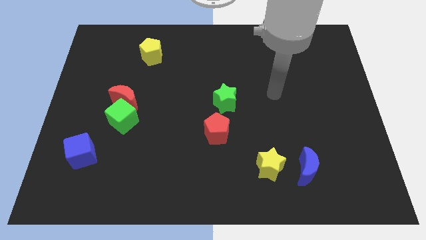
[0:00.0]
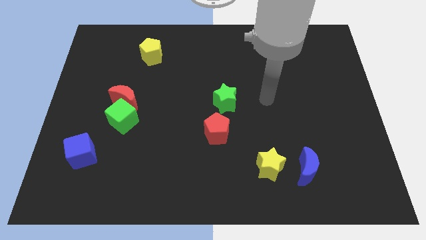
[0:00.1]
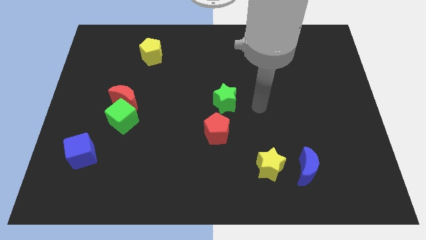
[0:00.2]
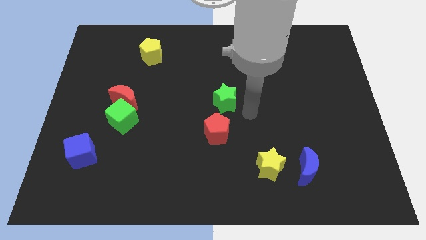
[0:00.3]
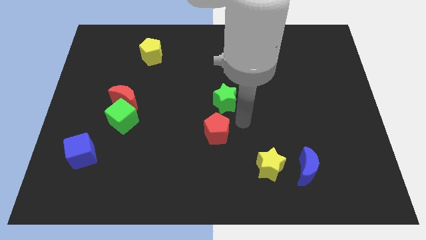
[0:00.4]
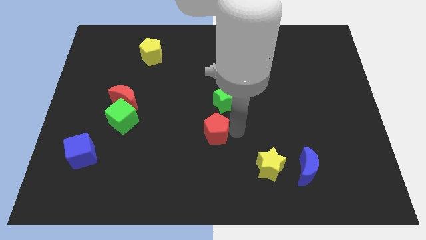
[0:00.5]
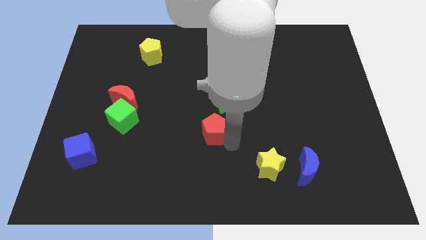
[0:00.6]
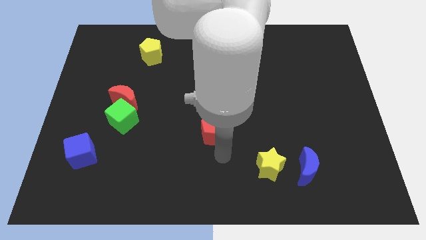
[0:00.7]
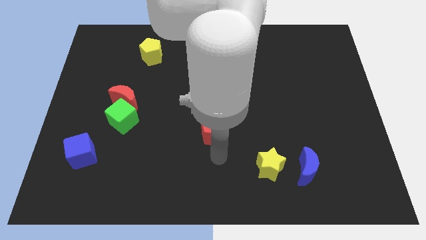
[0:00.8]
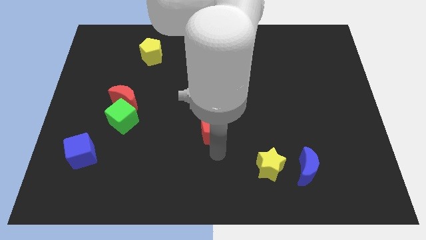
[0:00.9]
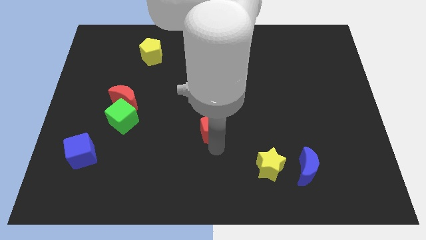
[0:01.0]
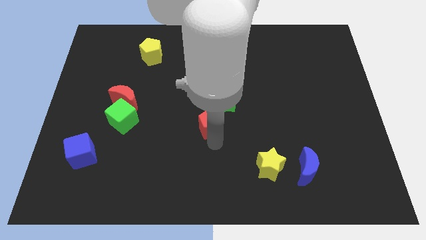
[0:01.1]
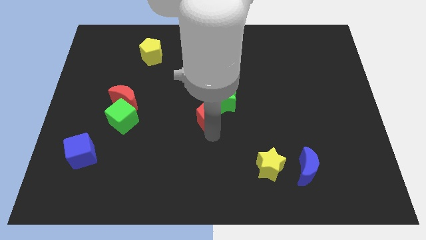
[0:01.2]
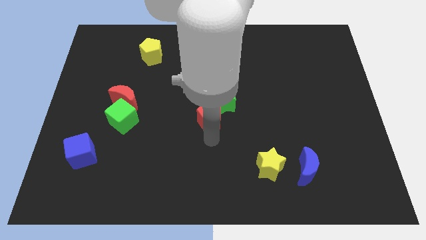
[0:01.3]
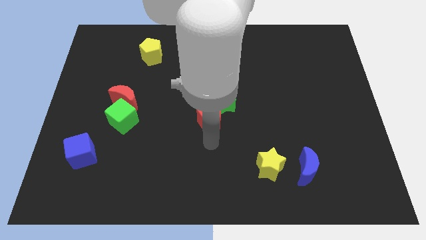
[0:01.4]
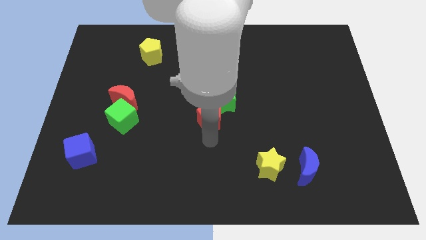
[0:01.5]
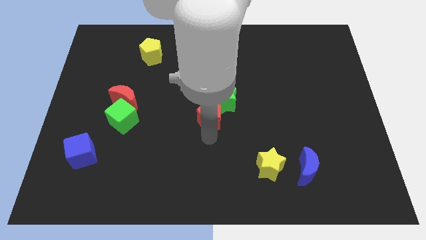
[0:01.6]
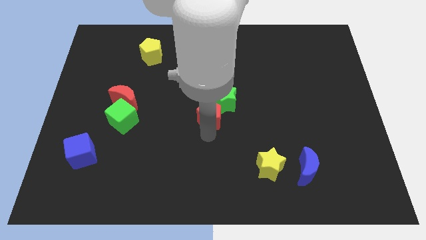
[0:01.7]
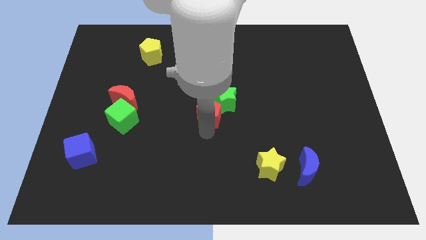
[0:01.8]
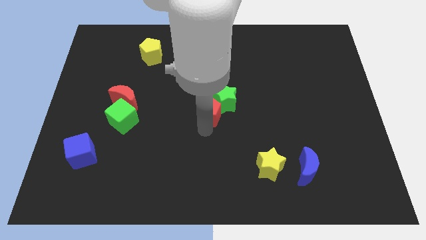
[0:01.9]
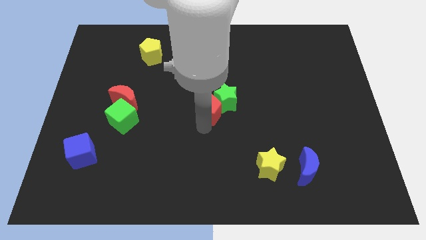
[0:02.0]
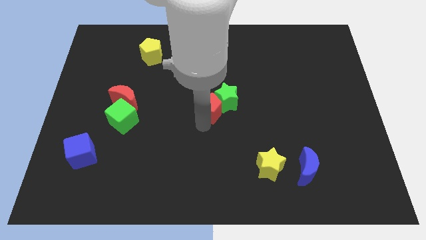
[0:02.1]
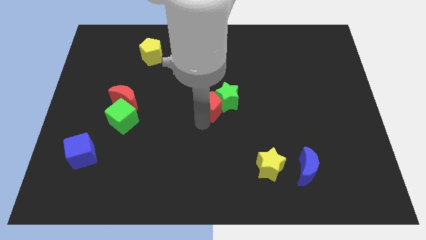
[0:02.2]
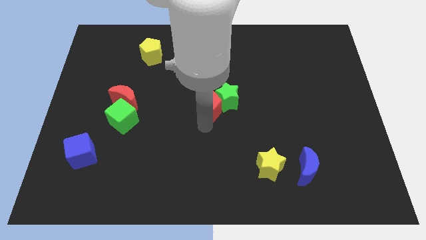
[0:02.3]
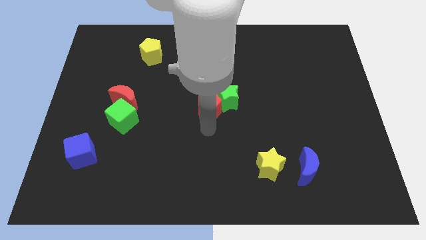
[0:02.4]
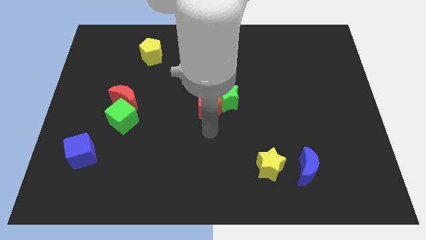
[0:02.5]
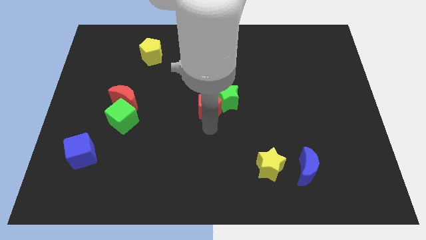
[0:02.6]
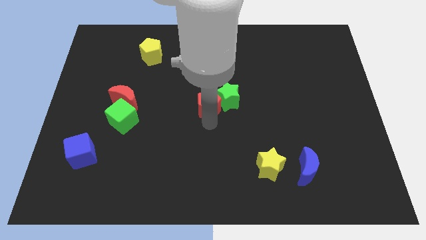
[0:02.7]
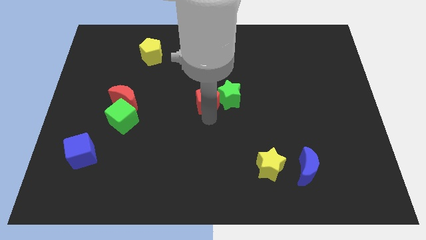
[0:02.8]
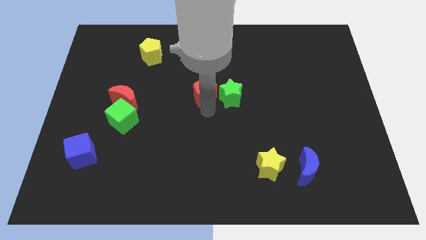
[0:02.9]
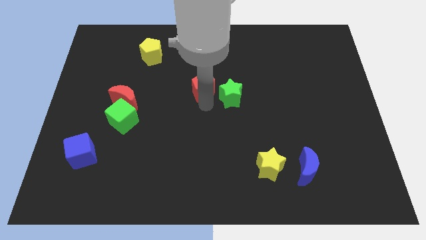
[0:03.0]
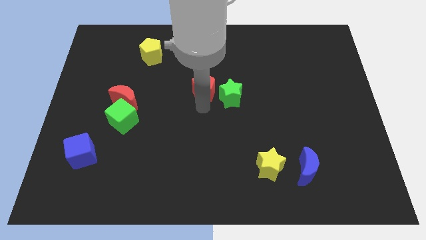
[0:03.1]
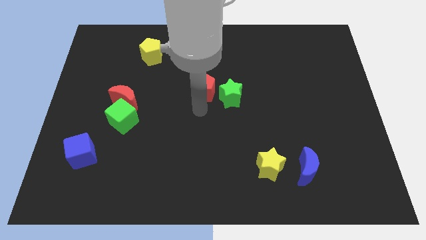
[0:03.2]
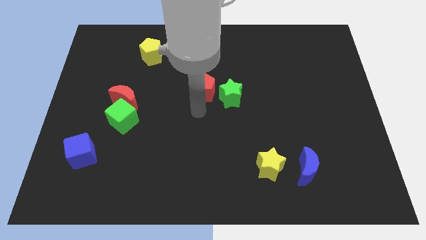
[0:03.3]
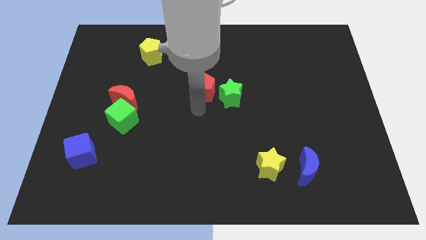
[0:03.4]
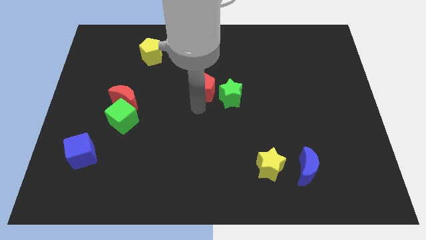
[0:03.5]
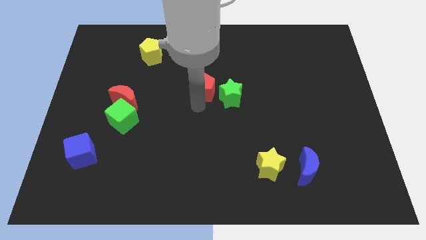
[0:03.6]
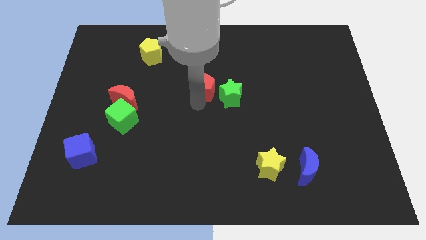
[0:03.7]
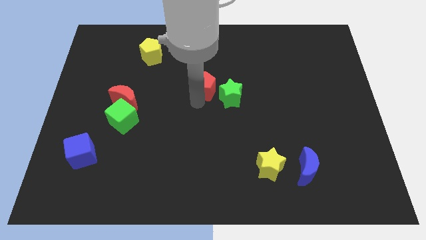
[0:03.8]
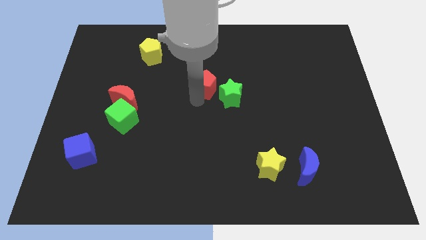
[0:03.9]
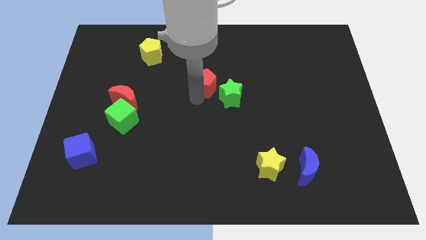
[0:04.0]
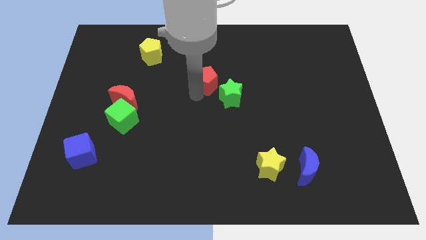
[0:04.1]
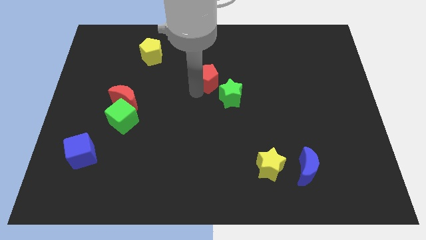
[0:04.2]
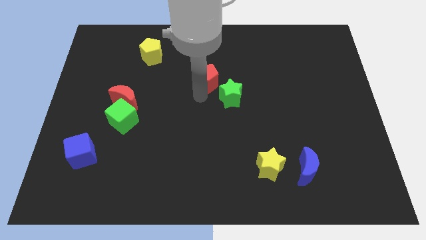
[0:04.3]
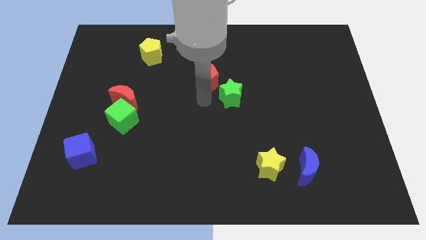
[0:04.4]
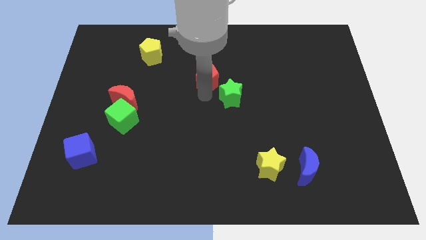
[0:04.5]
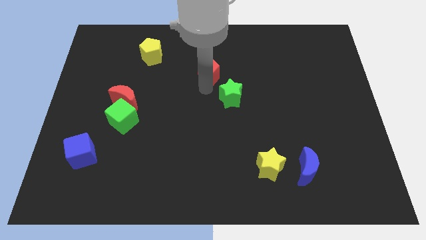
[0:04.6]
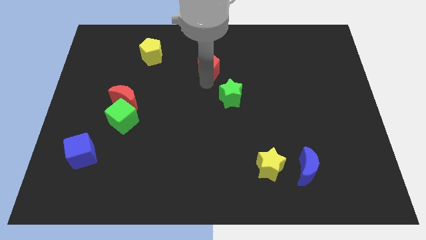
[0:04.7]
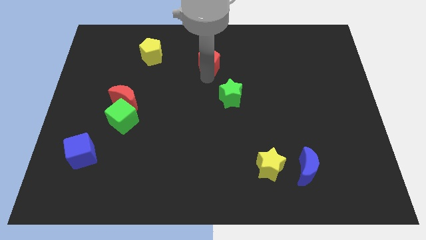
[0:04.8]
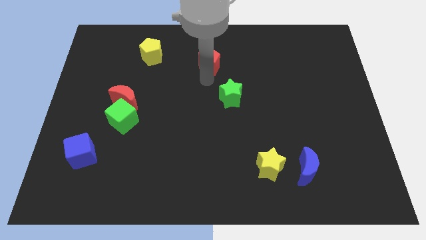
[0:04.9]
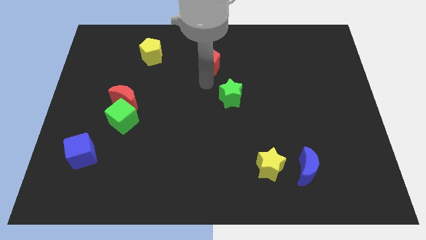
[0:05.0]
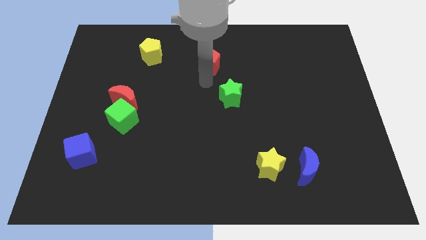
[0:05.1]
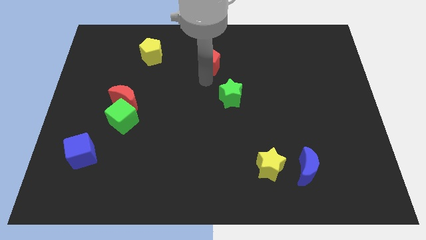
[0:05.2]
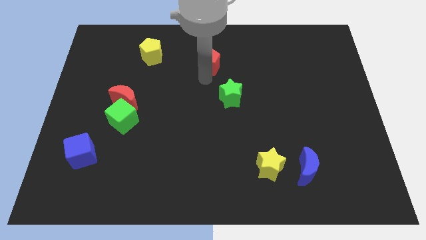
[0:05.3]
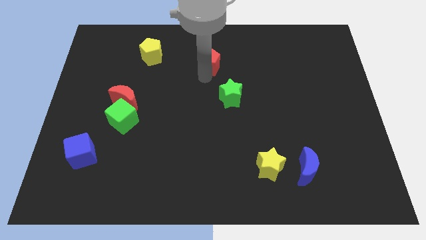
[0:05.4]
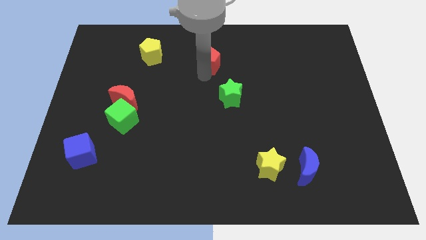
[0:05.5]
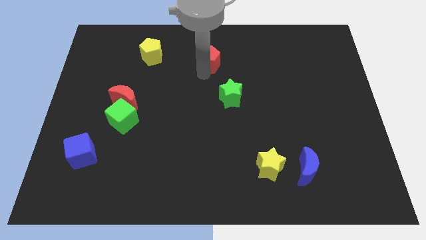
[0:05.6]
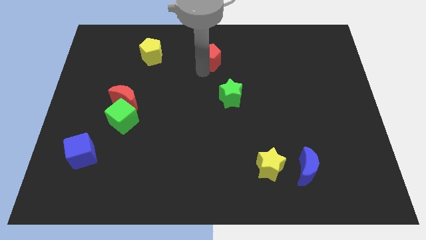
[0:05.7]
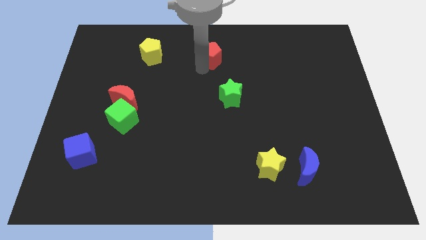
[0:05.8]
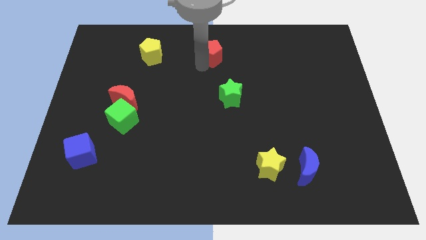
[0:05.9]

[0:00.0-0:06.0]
slide the red pentagon to the towards your base

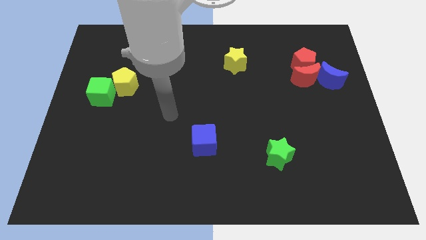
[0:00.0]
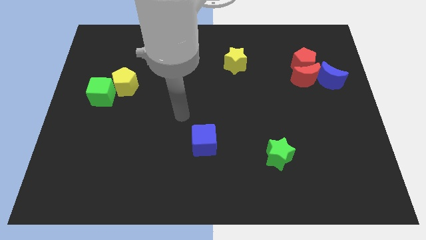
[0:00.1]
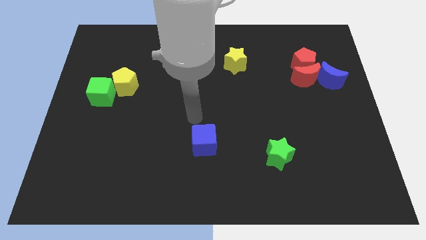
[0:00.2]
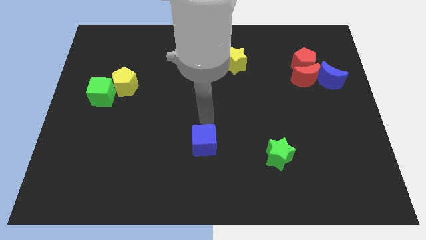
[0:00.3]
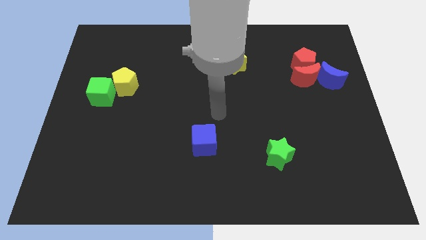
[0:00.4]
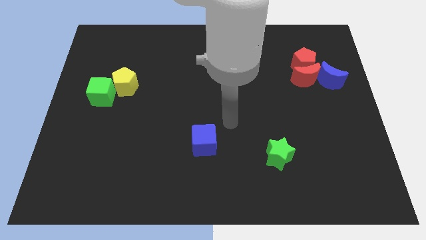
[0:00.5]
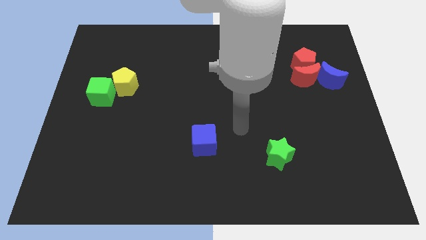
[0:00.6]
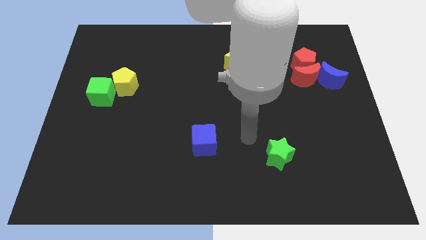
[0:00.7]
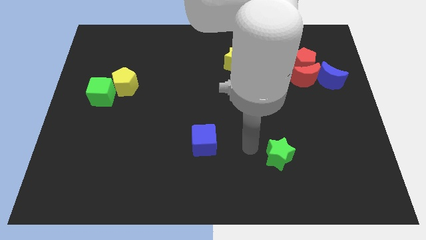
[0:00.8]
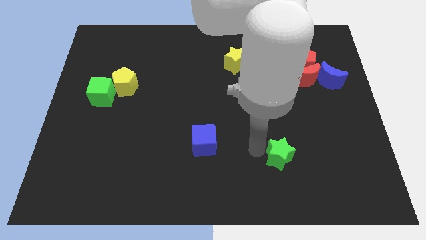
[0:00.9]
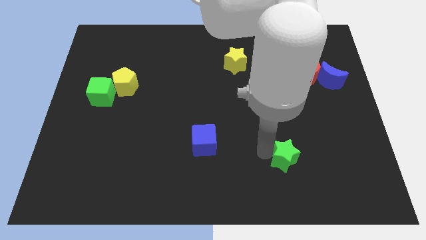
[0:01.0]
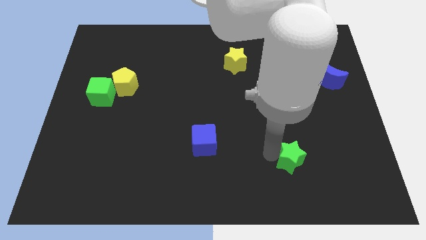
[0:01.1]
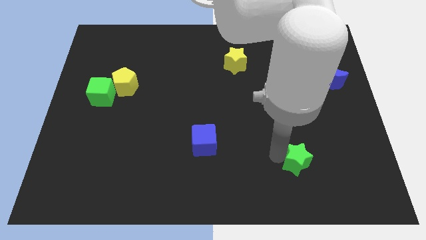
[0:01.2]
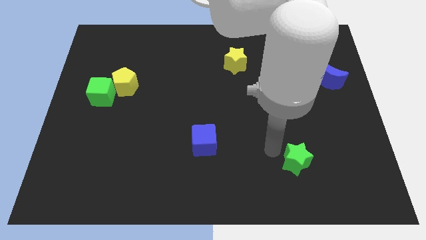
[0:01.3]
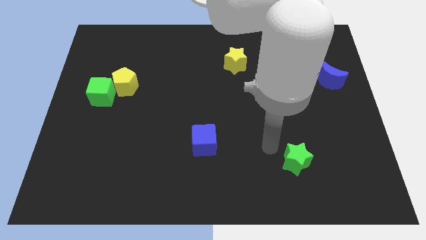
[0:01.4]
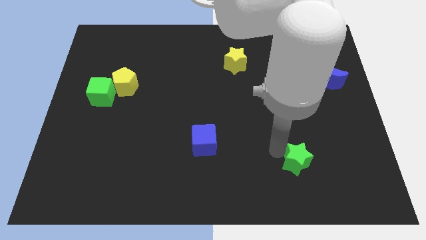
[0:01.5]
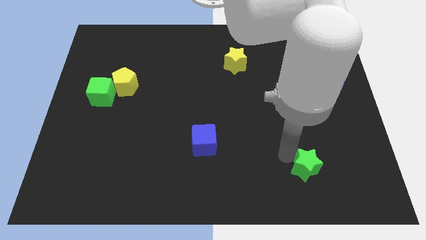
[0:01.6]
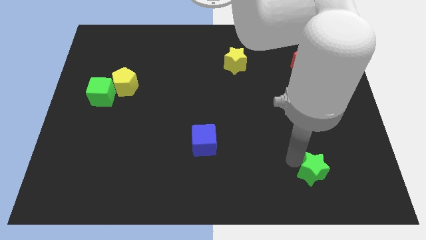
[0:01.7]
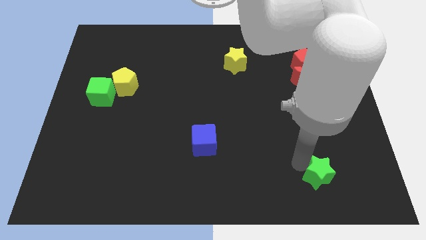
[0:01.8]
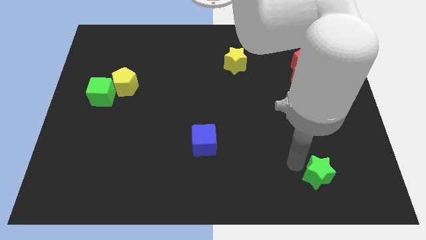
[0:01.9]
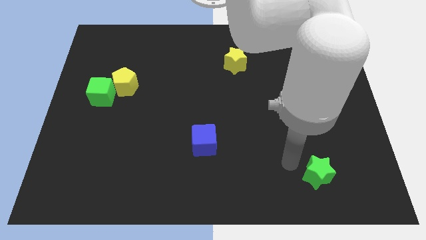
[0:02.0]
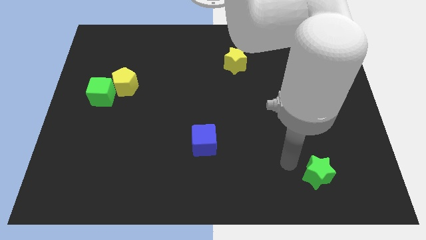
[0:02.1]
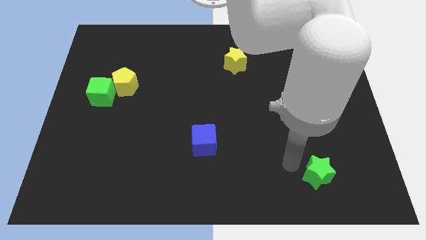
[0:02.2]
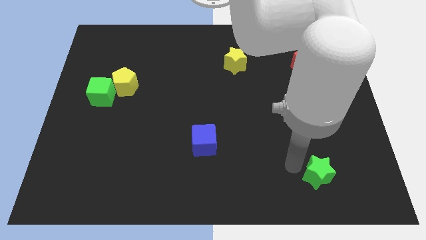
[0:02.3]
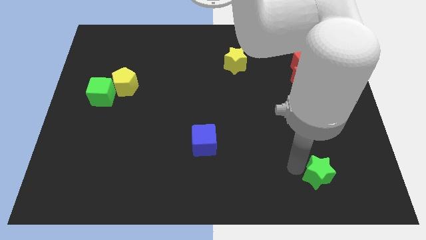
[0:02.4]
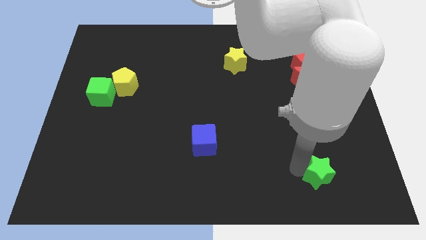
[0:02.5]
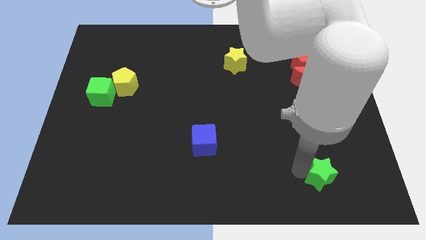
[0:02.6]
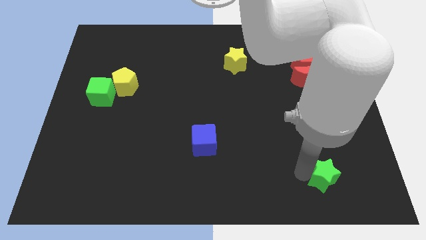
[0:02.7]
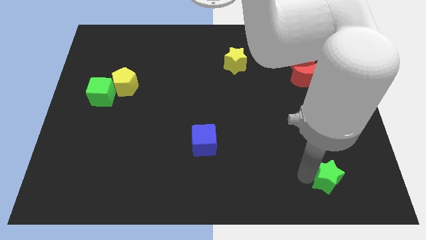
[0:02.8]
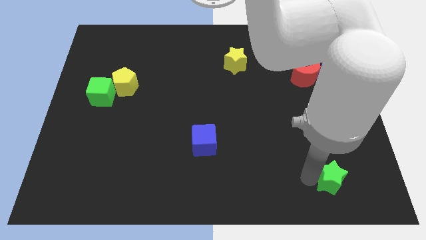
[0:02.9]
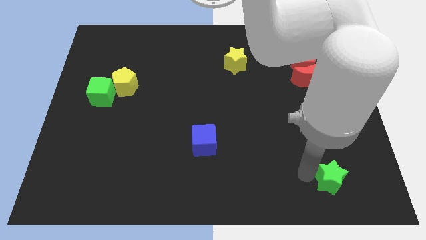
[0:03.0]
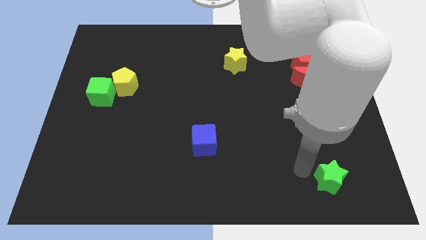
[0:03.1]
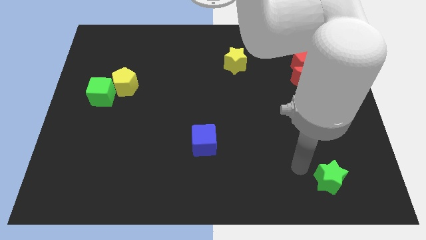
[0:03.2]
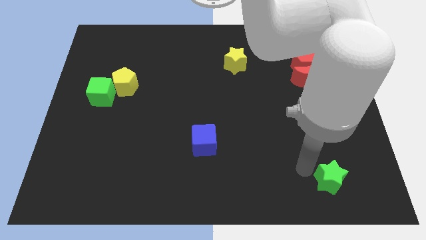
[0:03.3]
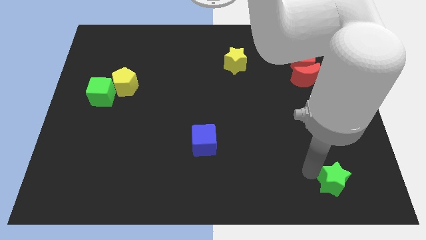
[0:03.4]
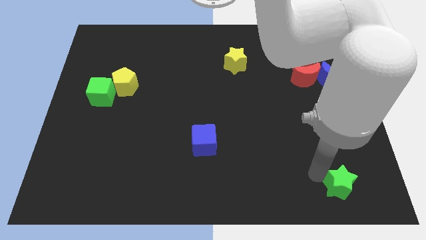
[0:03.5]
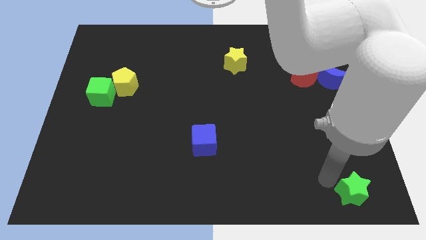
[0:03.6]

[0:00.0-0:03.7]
put the green star to the bottom right corner
